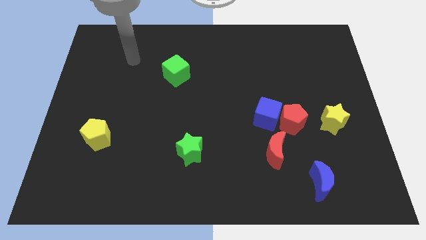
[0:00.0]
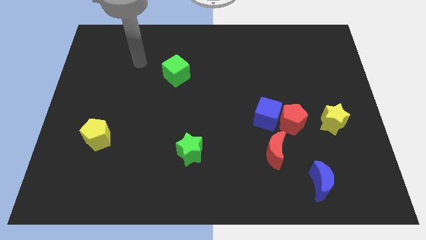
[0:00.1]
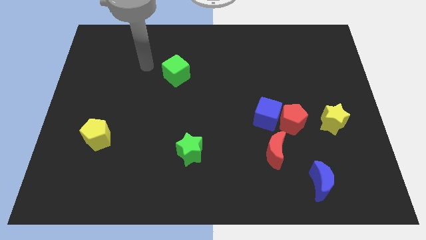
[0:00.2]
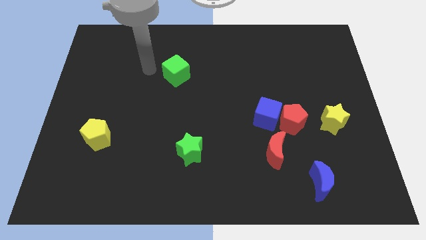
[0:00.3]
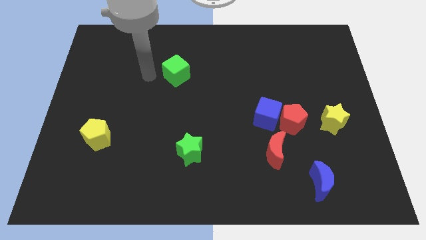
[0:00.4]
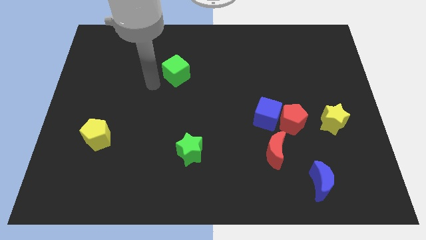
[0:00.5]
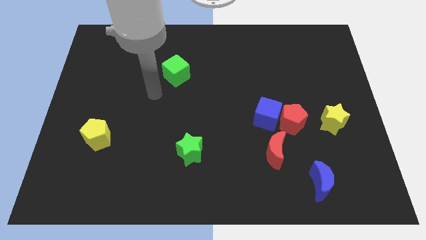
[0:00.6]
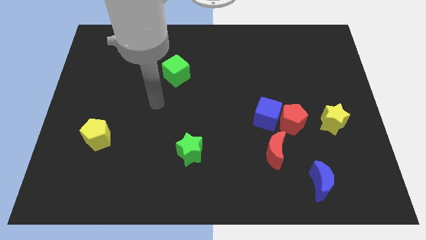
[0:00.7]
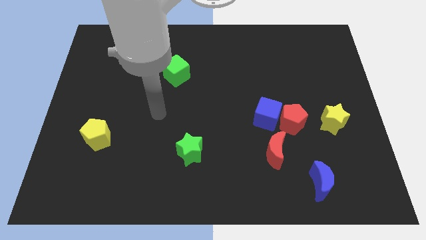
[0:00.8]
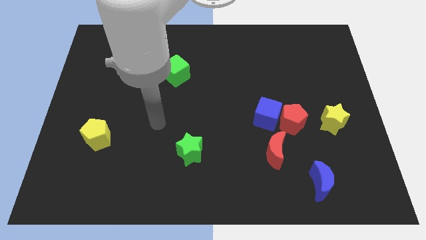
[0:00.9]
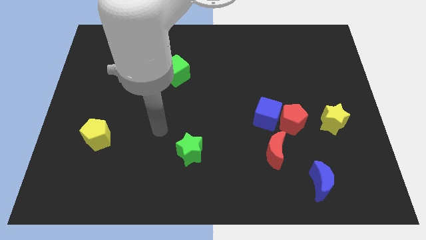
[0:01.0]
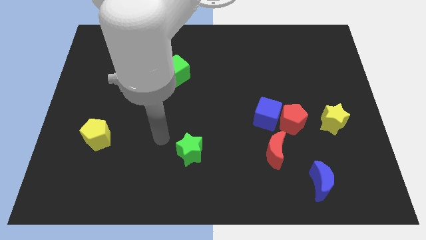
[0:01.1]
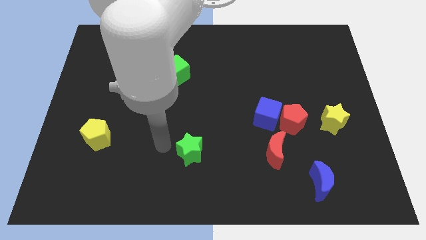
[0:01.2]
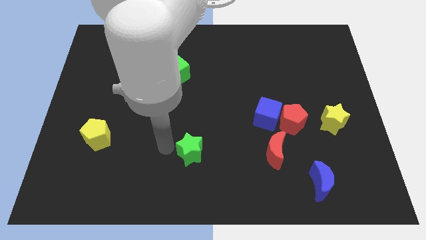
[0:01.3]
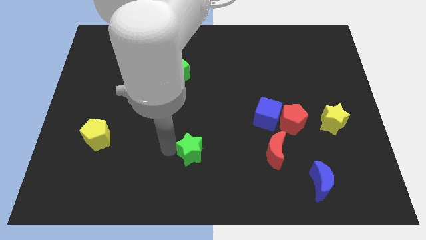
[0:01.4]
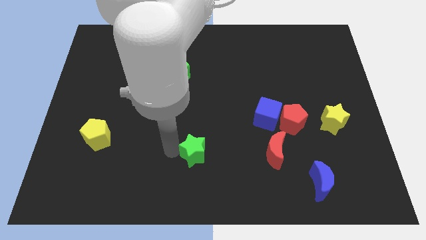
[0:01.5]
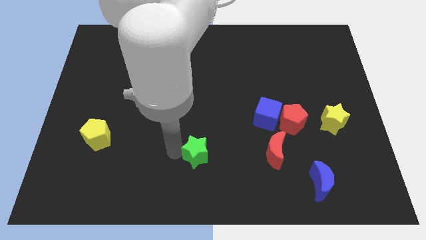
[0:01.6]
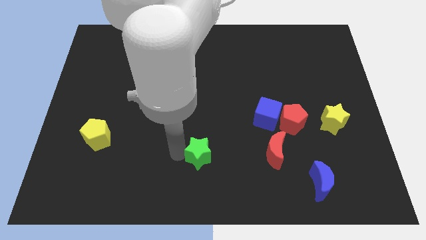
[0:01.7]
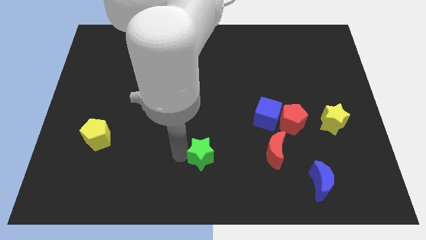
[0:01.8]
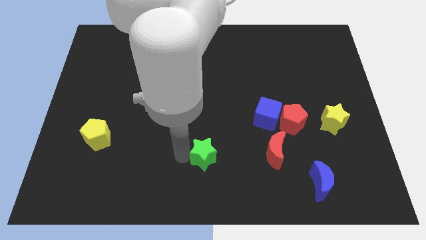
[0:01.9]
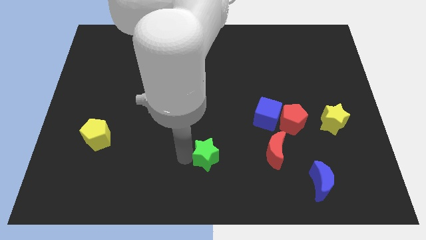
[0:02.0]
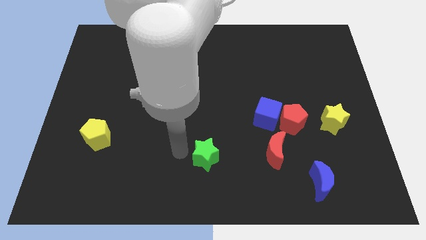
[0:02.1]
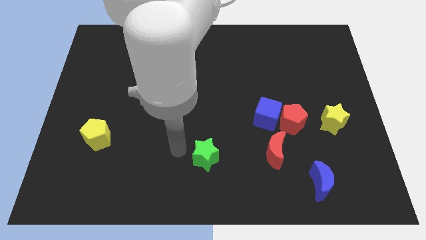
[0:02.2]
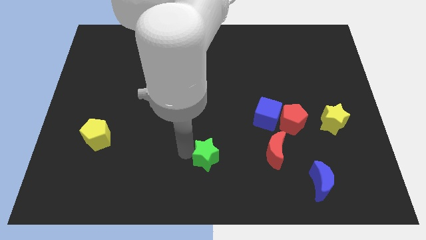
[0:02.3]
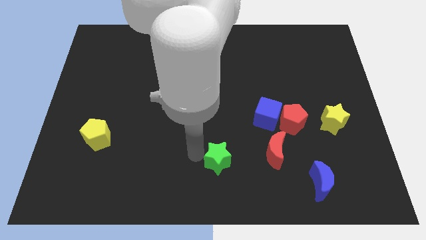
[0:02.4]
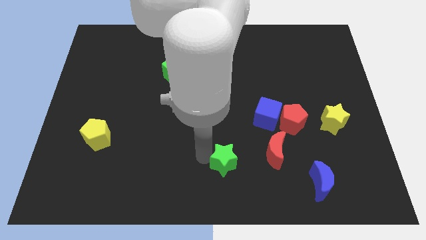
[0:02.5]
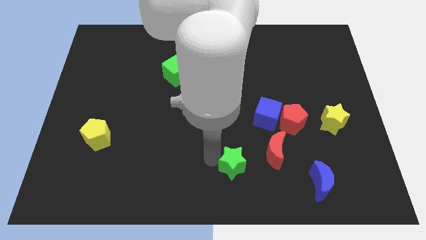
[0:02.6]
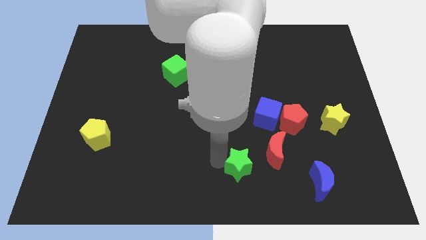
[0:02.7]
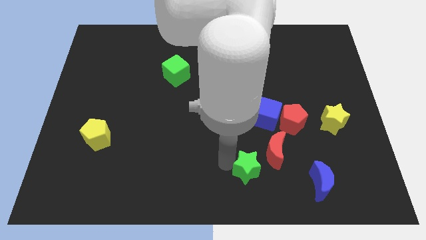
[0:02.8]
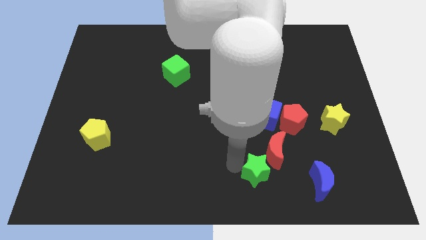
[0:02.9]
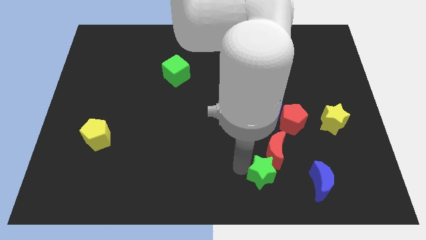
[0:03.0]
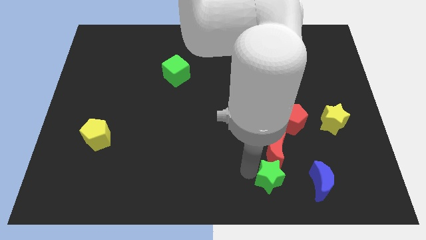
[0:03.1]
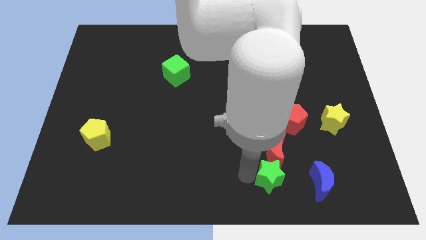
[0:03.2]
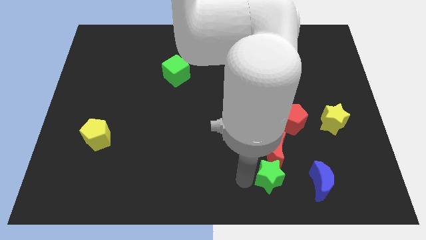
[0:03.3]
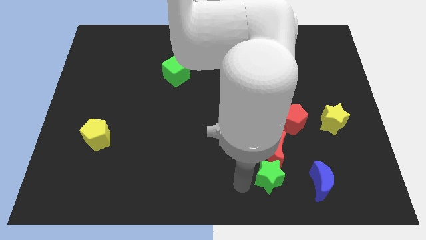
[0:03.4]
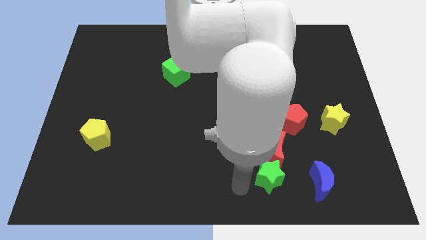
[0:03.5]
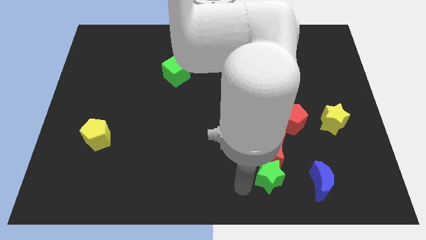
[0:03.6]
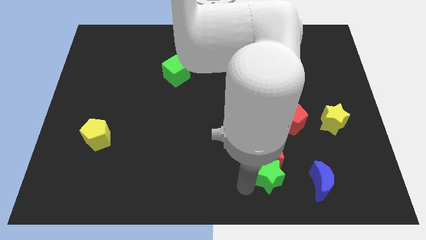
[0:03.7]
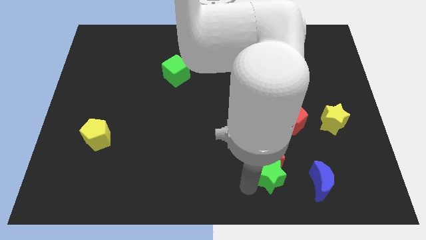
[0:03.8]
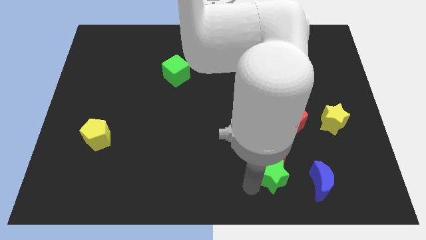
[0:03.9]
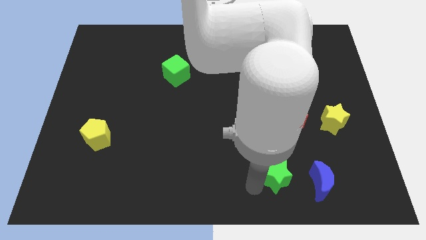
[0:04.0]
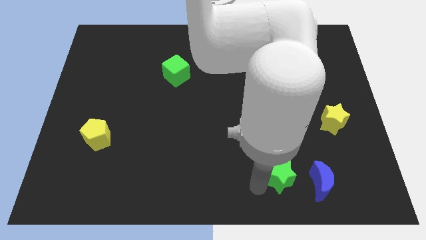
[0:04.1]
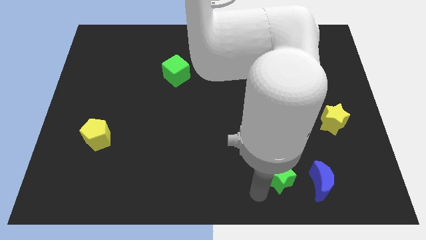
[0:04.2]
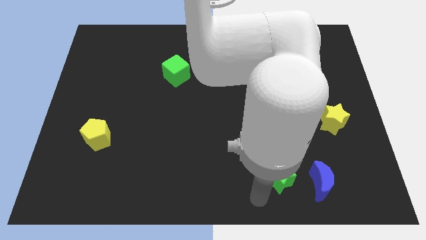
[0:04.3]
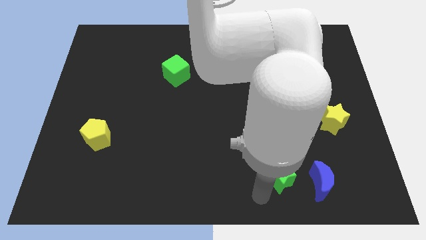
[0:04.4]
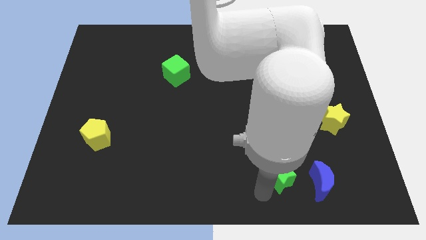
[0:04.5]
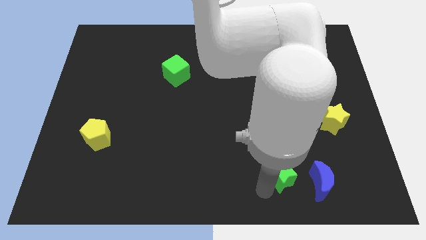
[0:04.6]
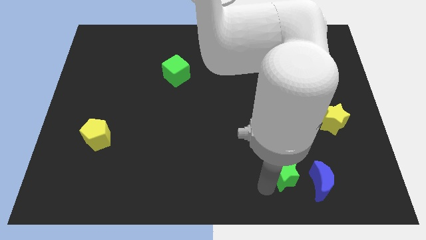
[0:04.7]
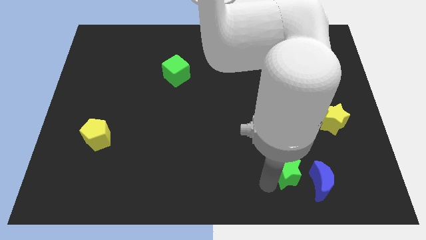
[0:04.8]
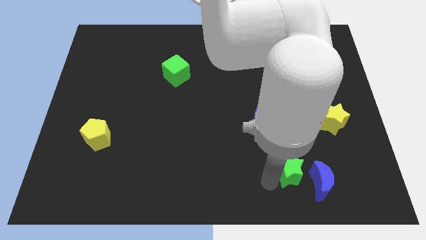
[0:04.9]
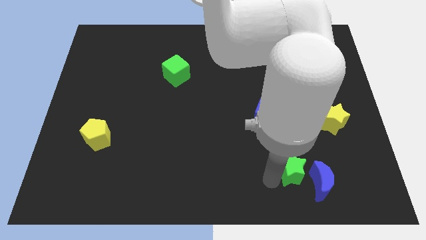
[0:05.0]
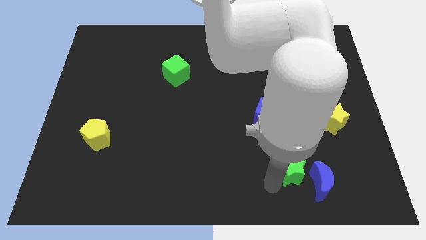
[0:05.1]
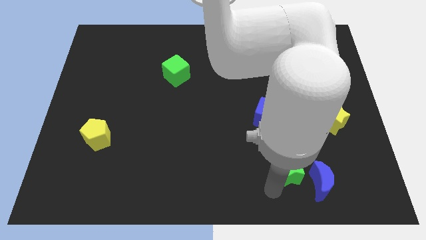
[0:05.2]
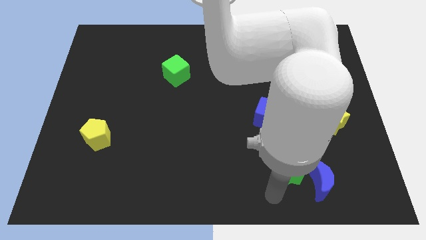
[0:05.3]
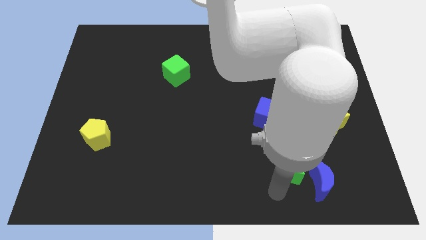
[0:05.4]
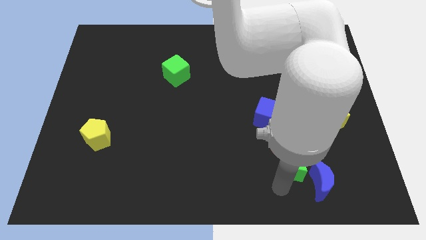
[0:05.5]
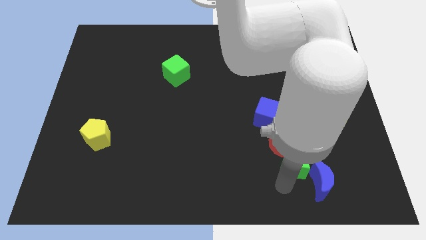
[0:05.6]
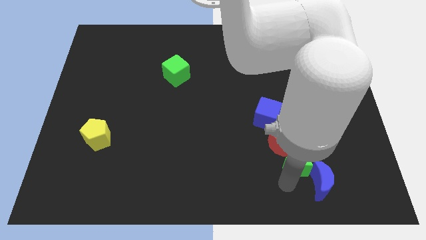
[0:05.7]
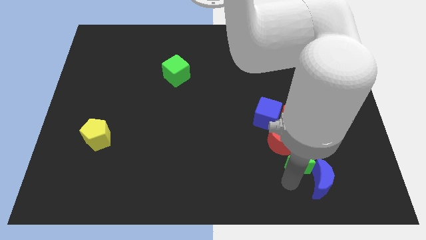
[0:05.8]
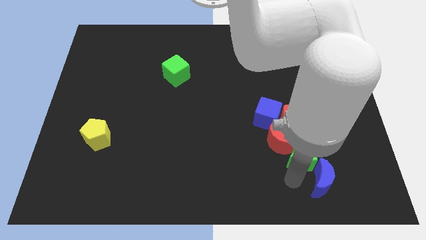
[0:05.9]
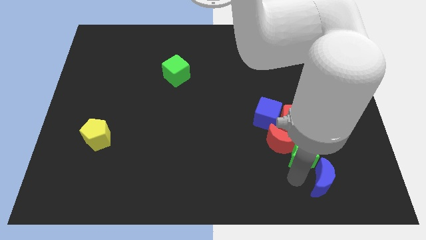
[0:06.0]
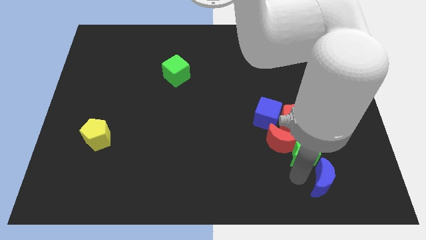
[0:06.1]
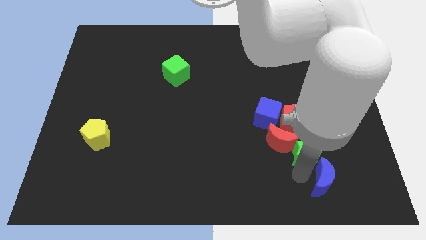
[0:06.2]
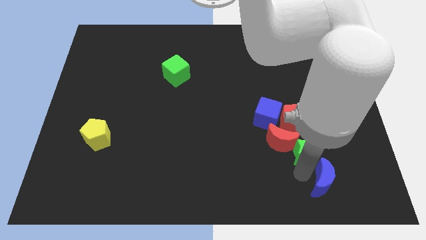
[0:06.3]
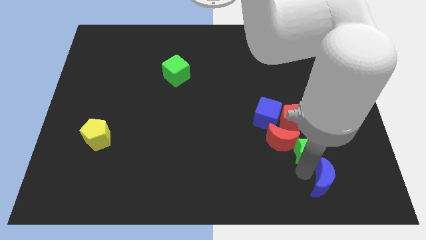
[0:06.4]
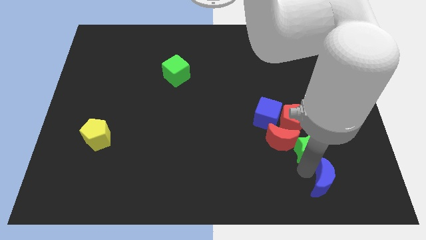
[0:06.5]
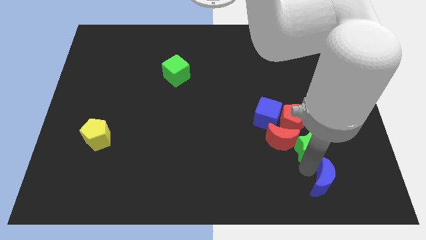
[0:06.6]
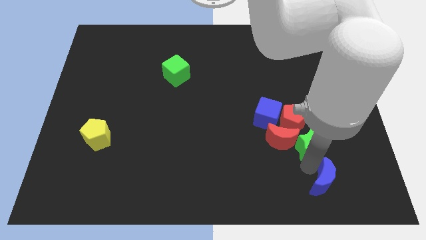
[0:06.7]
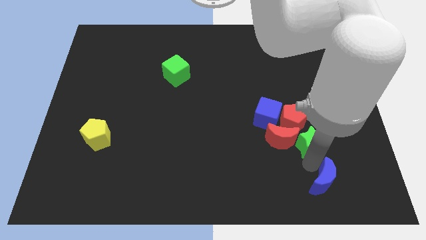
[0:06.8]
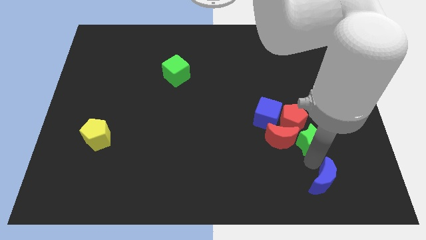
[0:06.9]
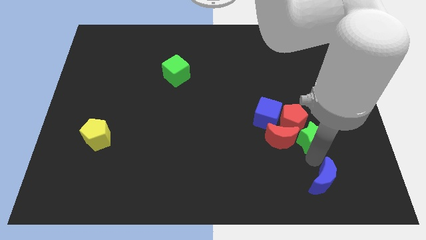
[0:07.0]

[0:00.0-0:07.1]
put the green star close to the red pentagon

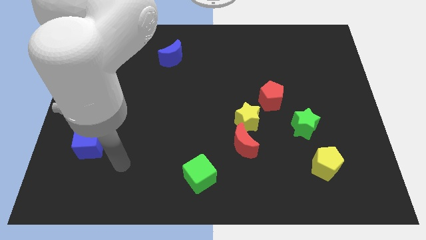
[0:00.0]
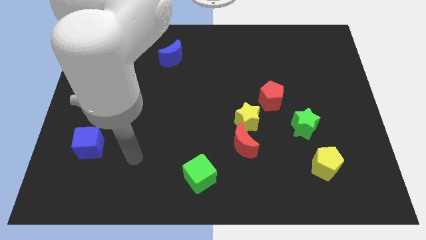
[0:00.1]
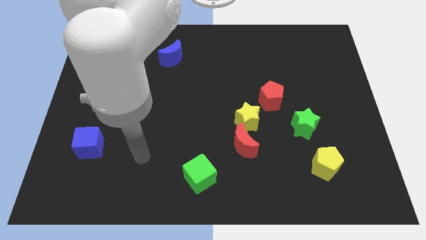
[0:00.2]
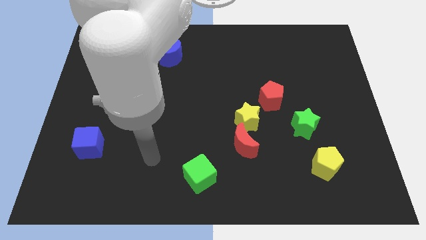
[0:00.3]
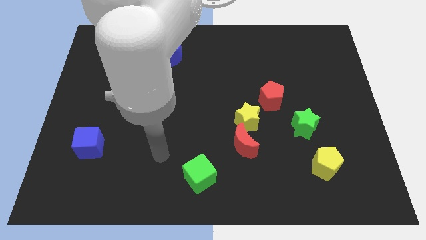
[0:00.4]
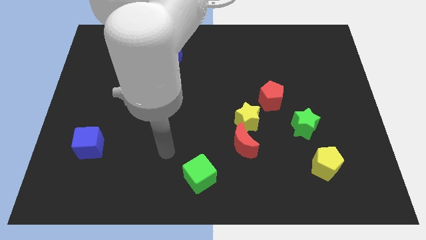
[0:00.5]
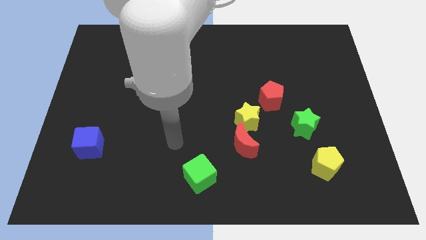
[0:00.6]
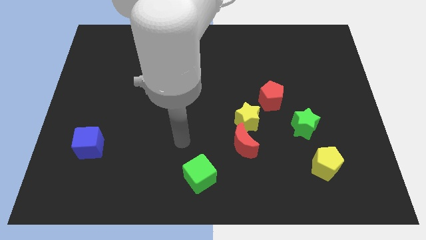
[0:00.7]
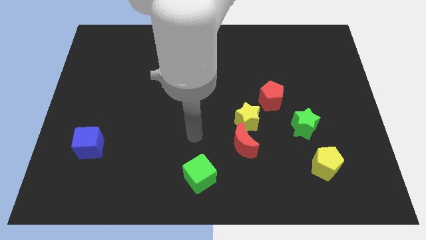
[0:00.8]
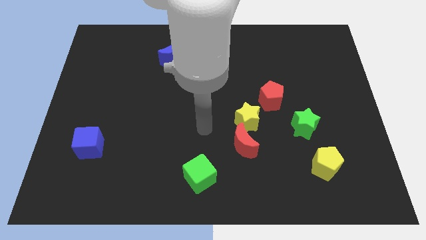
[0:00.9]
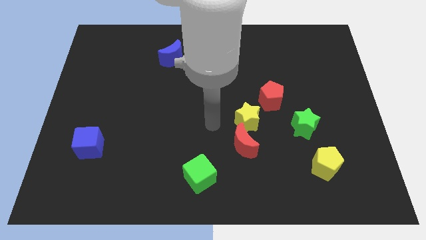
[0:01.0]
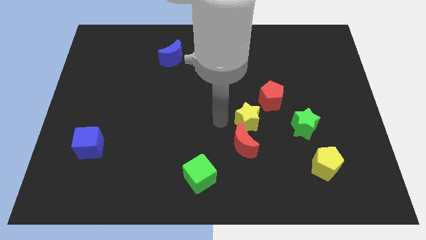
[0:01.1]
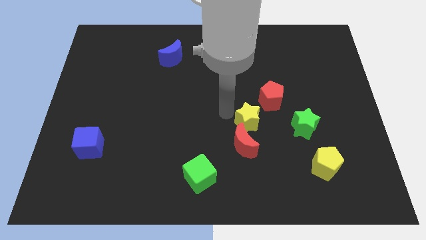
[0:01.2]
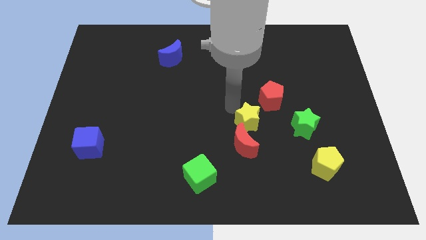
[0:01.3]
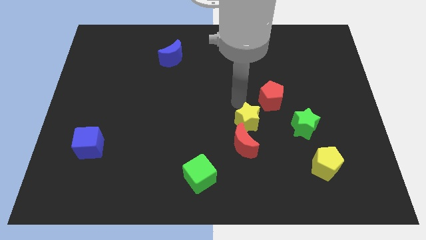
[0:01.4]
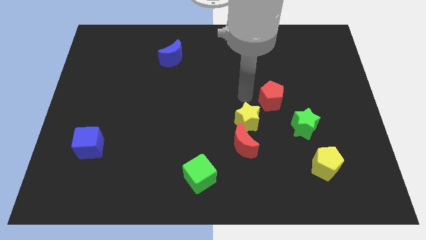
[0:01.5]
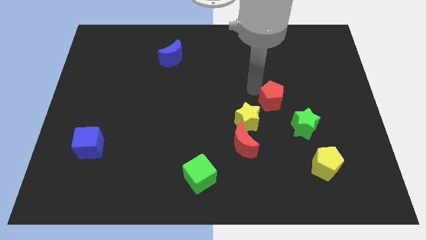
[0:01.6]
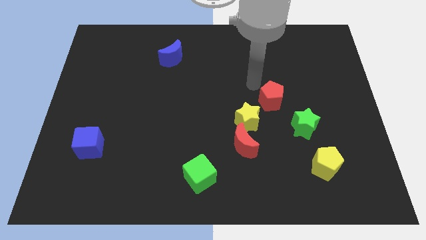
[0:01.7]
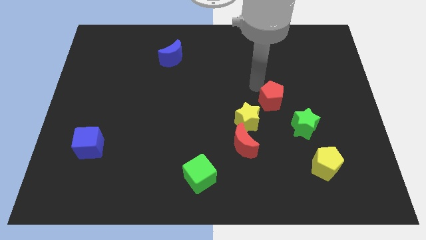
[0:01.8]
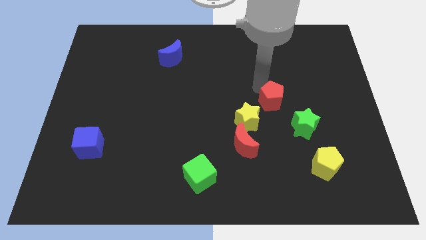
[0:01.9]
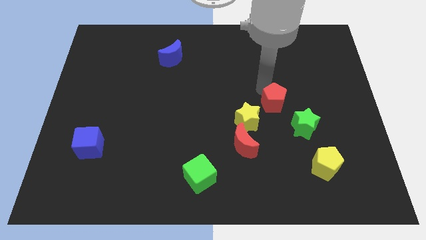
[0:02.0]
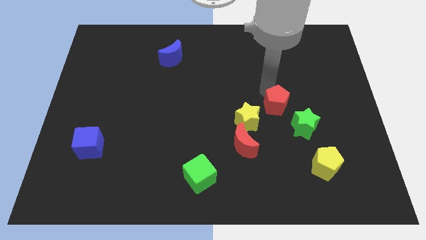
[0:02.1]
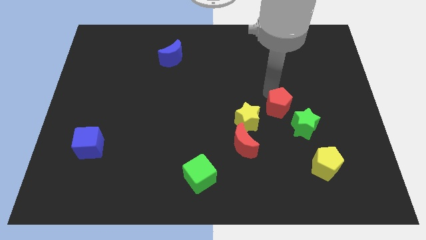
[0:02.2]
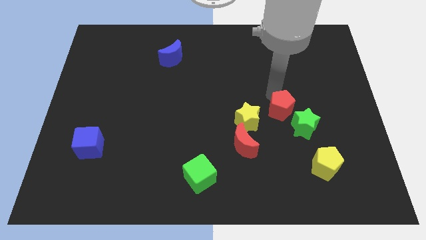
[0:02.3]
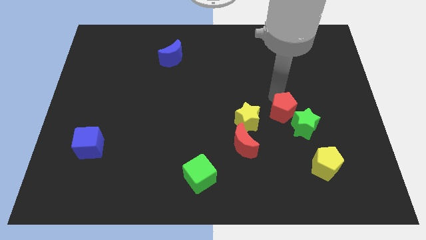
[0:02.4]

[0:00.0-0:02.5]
move the red pentagon next to the green star
